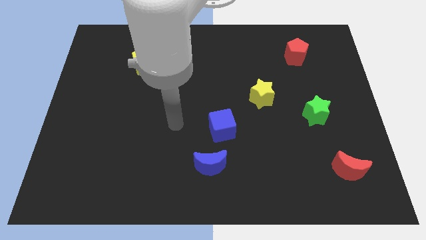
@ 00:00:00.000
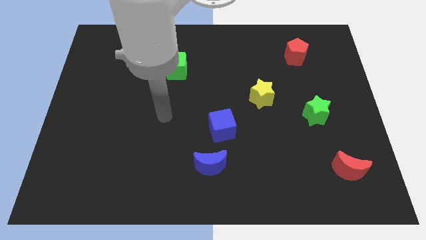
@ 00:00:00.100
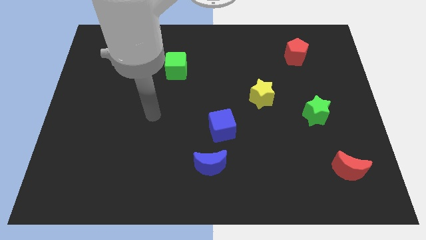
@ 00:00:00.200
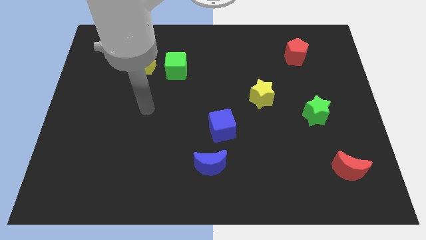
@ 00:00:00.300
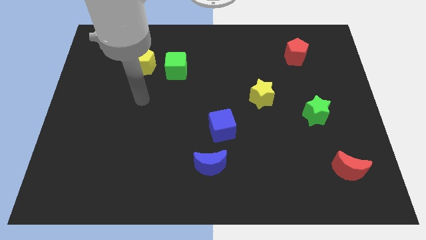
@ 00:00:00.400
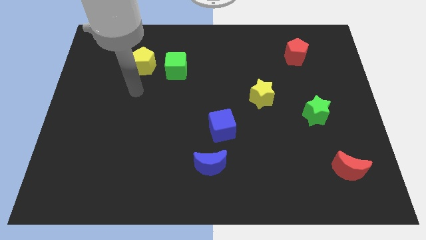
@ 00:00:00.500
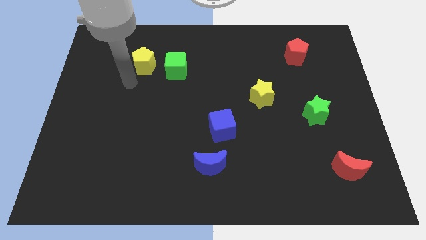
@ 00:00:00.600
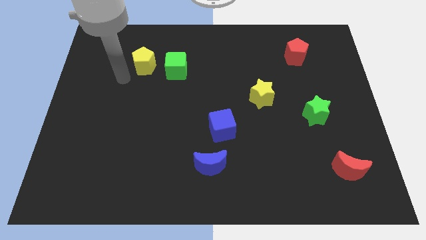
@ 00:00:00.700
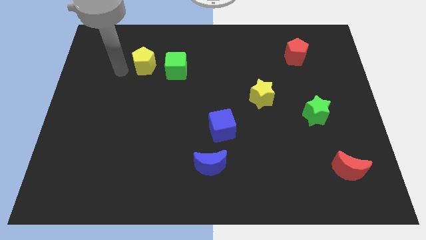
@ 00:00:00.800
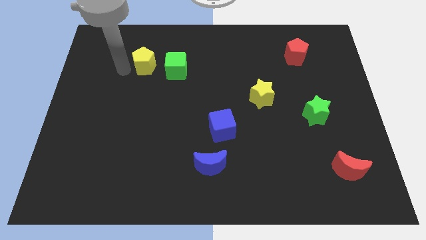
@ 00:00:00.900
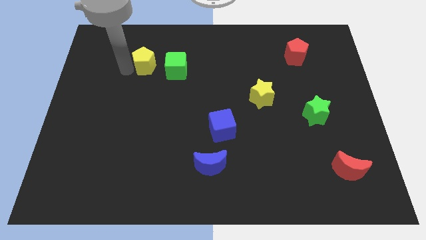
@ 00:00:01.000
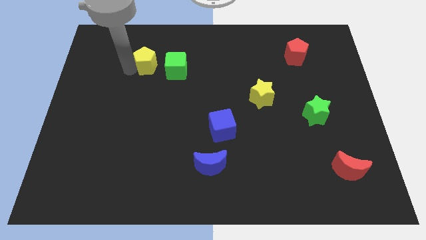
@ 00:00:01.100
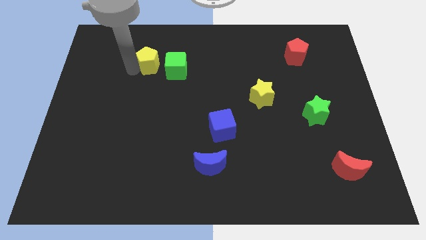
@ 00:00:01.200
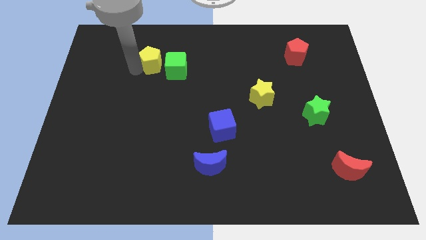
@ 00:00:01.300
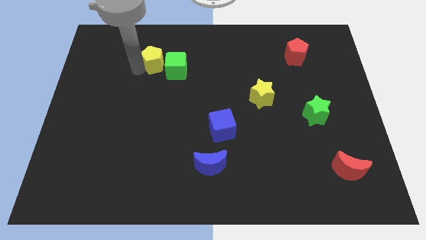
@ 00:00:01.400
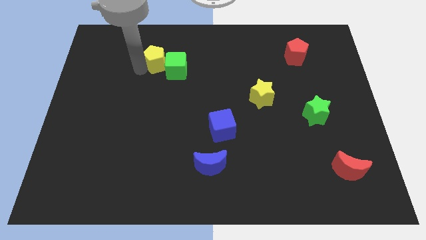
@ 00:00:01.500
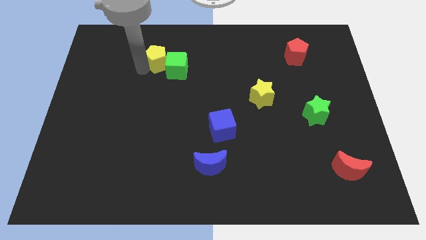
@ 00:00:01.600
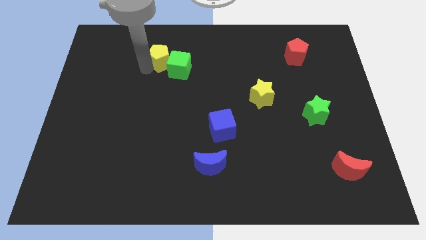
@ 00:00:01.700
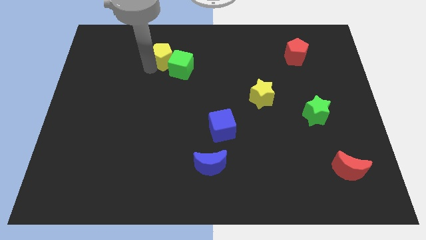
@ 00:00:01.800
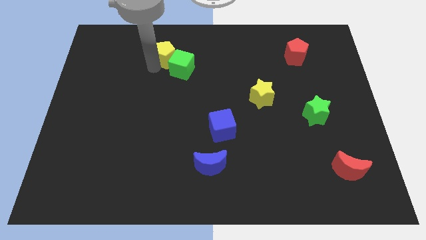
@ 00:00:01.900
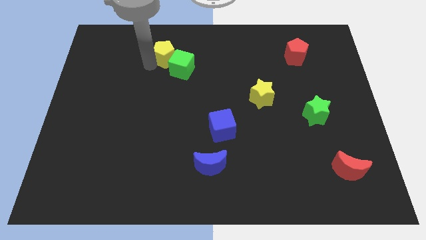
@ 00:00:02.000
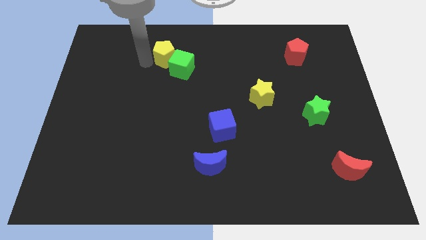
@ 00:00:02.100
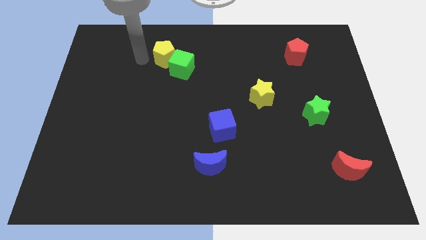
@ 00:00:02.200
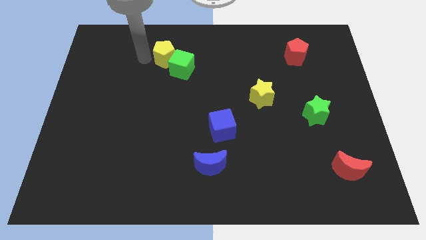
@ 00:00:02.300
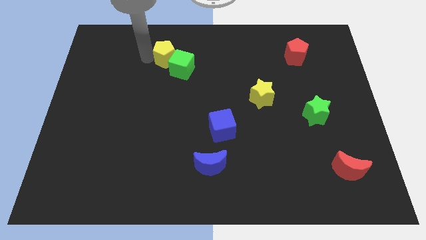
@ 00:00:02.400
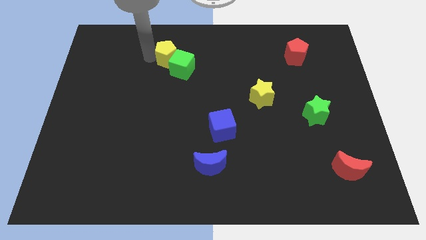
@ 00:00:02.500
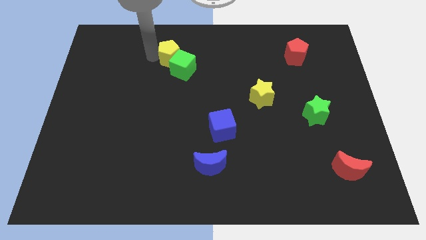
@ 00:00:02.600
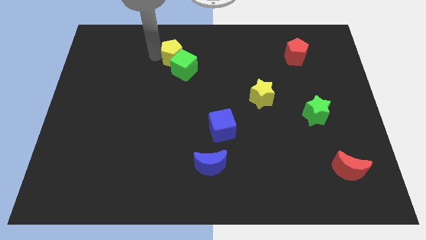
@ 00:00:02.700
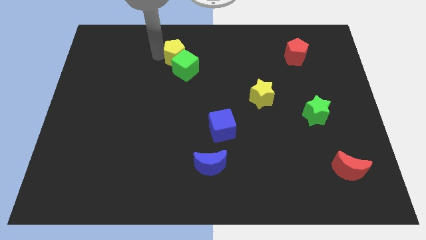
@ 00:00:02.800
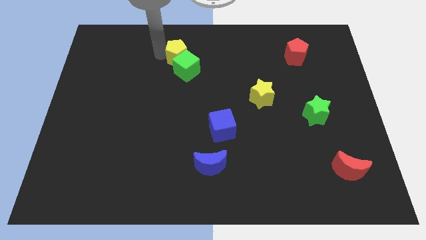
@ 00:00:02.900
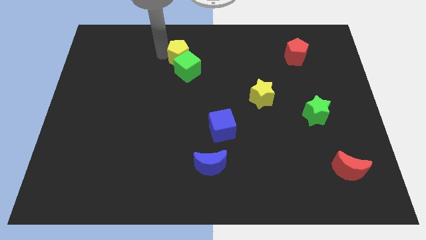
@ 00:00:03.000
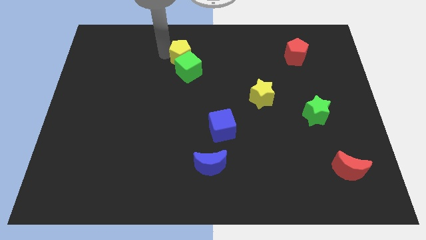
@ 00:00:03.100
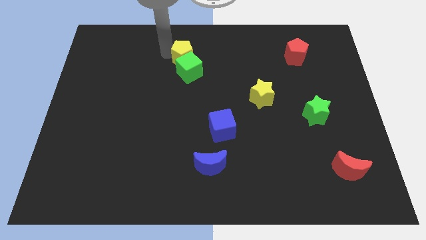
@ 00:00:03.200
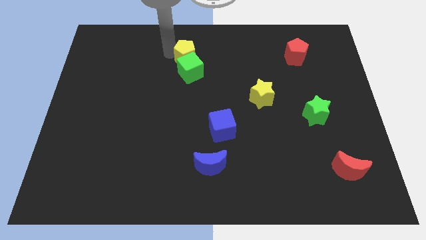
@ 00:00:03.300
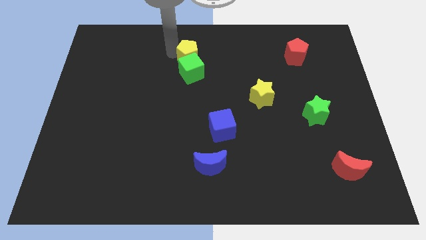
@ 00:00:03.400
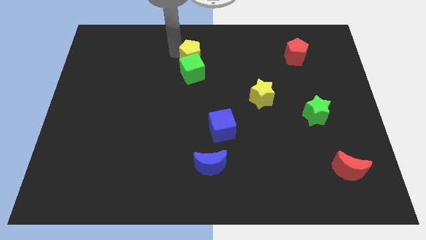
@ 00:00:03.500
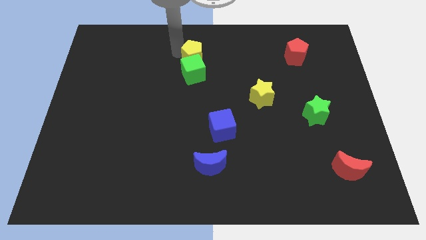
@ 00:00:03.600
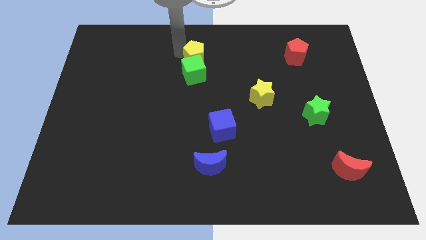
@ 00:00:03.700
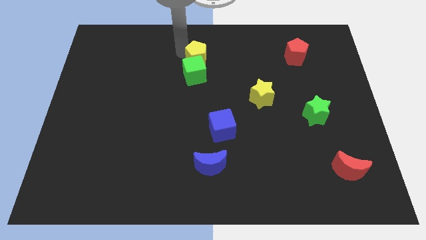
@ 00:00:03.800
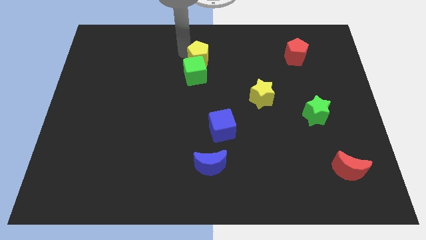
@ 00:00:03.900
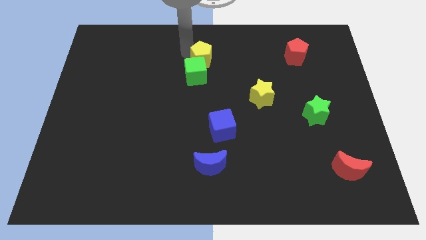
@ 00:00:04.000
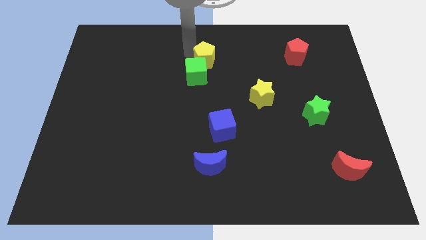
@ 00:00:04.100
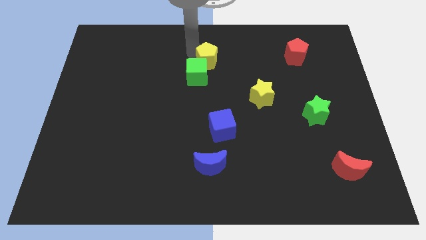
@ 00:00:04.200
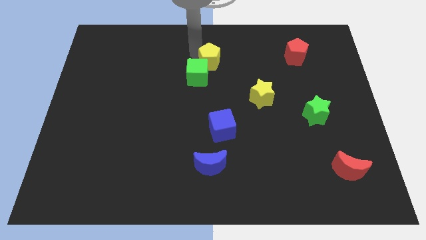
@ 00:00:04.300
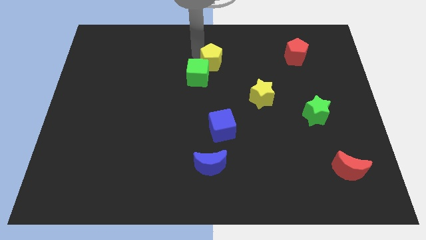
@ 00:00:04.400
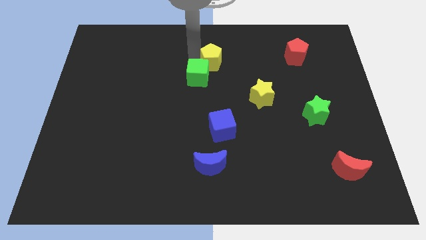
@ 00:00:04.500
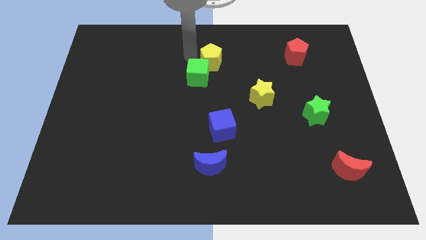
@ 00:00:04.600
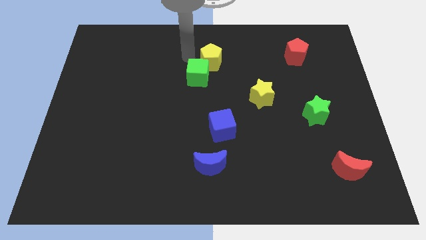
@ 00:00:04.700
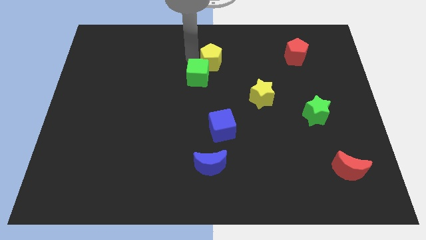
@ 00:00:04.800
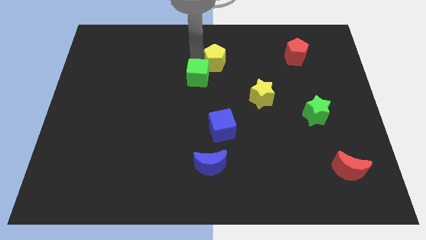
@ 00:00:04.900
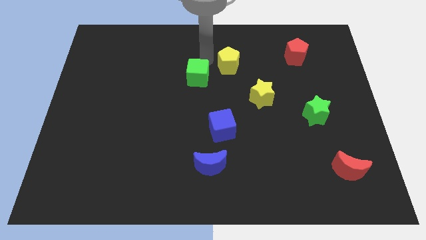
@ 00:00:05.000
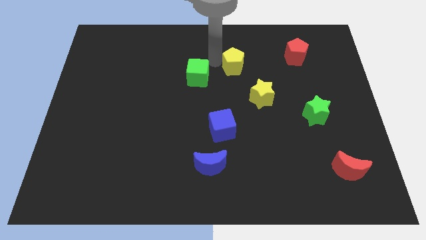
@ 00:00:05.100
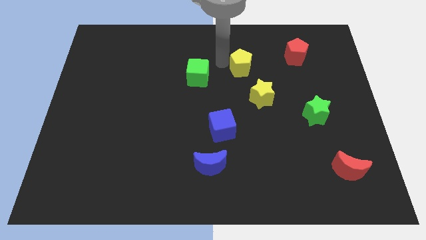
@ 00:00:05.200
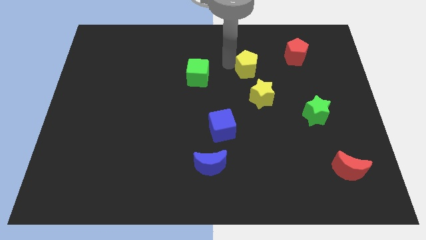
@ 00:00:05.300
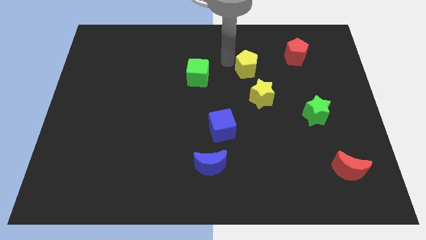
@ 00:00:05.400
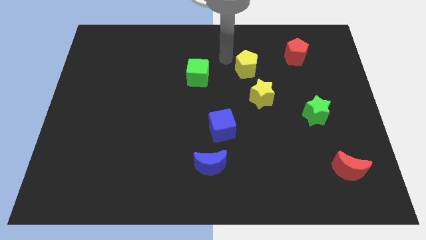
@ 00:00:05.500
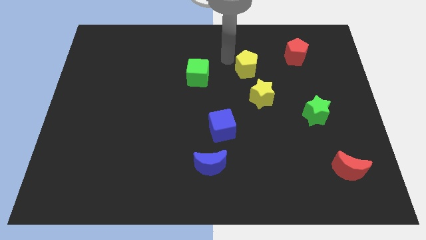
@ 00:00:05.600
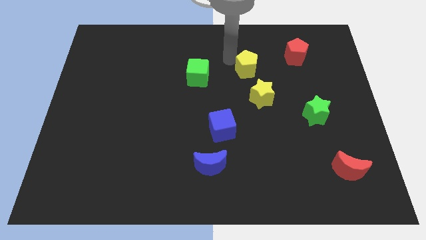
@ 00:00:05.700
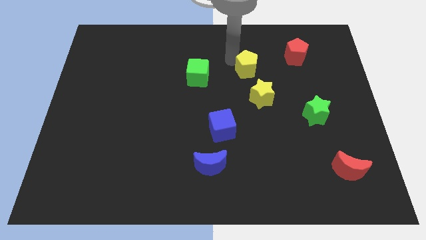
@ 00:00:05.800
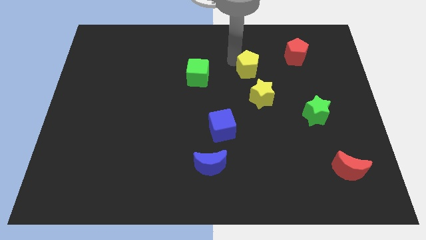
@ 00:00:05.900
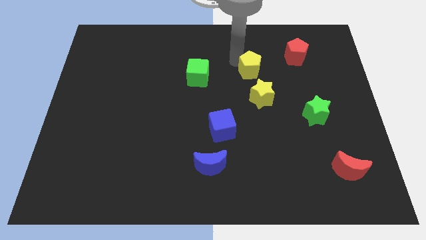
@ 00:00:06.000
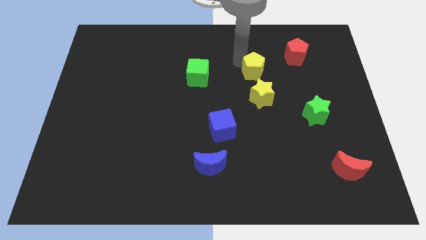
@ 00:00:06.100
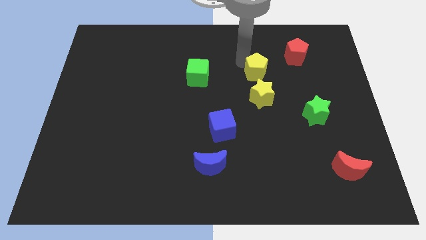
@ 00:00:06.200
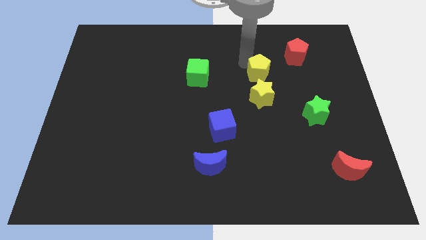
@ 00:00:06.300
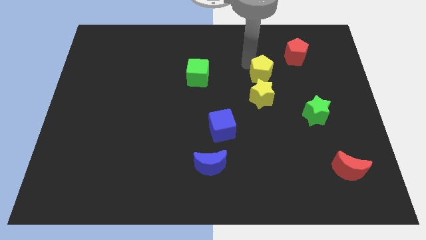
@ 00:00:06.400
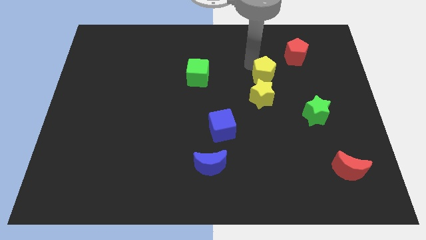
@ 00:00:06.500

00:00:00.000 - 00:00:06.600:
slide the yellow pentagon diagonally up and to the right of the yellow star

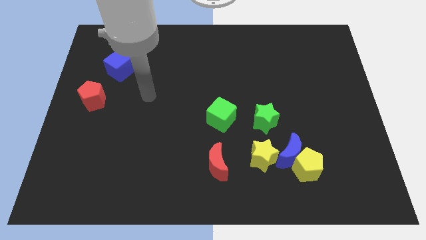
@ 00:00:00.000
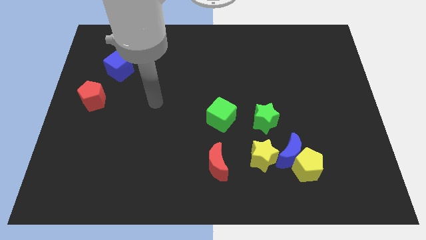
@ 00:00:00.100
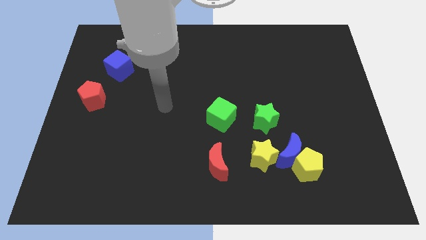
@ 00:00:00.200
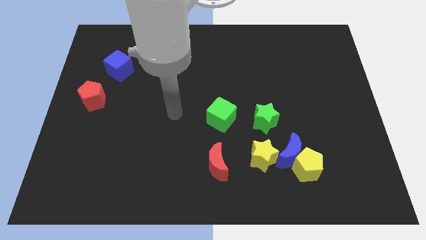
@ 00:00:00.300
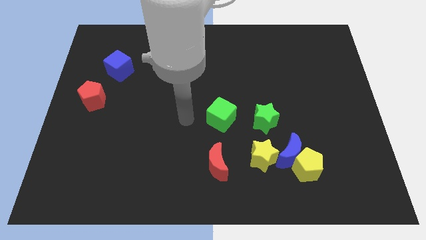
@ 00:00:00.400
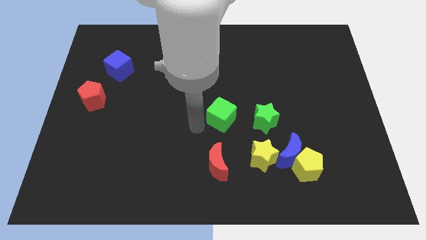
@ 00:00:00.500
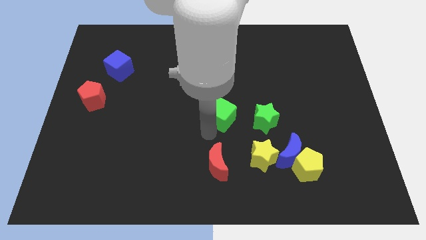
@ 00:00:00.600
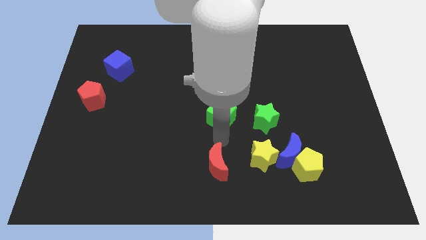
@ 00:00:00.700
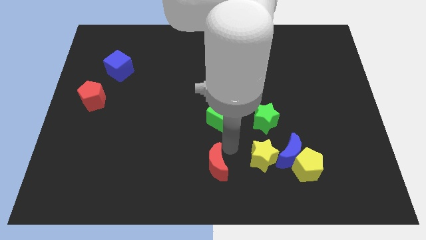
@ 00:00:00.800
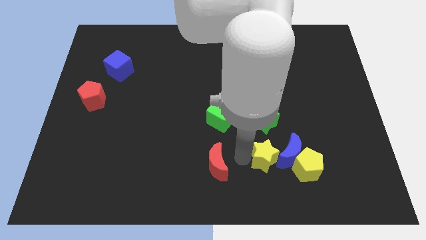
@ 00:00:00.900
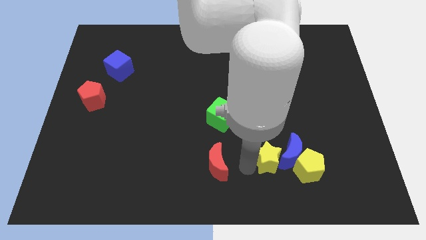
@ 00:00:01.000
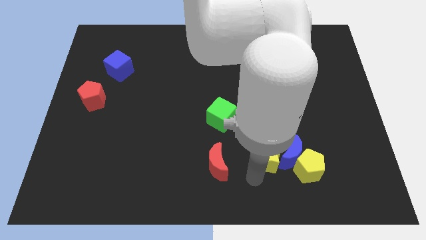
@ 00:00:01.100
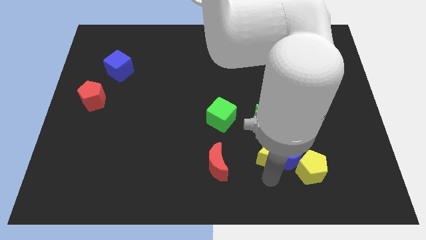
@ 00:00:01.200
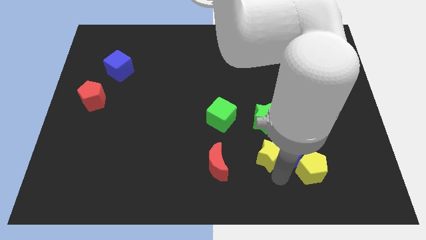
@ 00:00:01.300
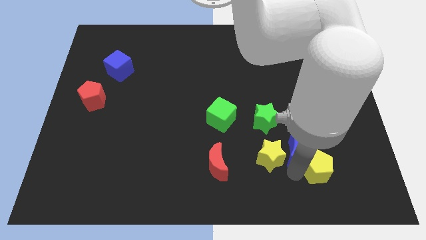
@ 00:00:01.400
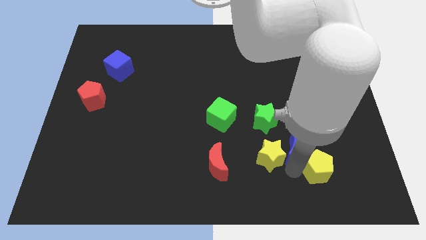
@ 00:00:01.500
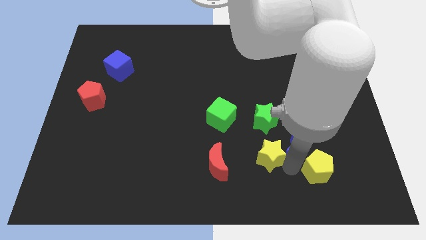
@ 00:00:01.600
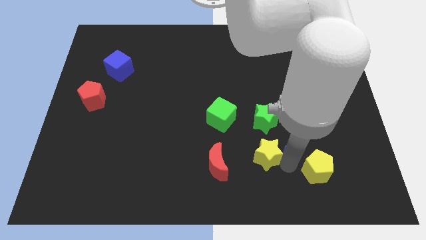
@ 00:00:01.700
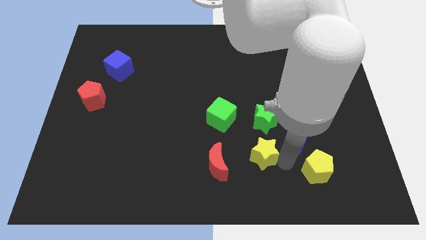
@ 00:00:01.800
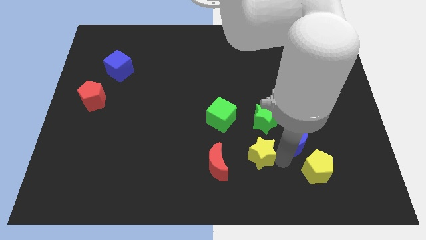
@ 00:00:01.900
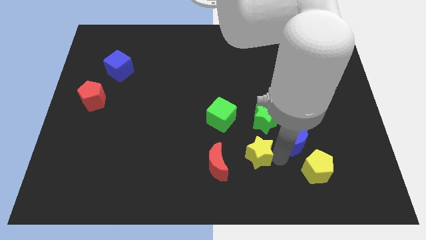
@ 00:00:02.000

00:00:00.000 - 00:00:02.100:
push the yellow star to the bottom left side of the green star

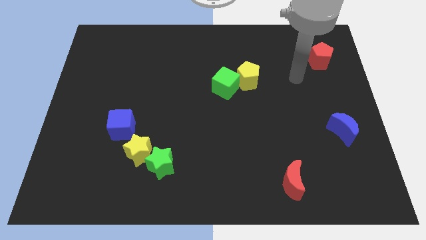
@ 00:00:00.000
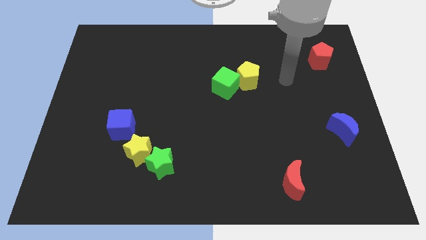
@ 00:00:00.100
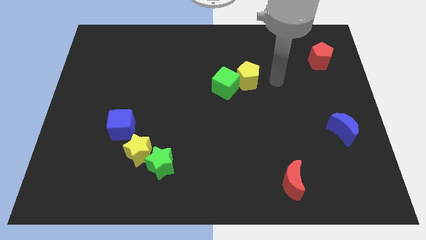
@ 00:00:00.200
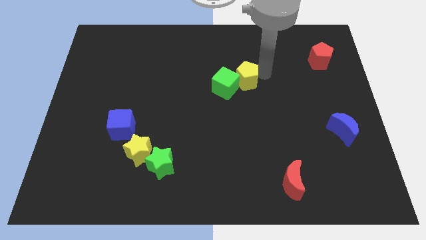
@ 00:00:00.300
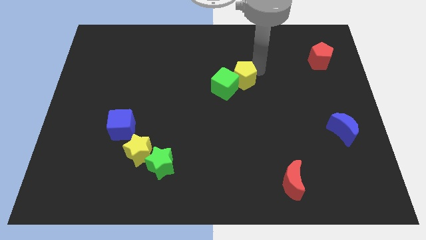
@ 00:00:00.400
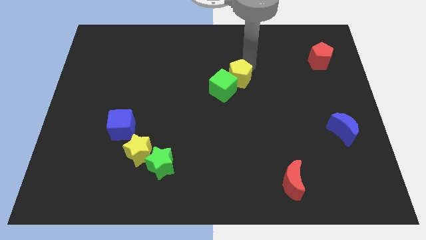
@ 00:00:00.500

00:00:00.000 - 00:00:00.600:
put the green cube below the yellow pentagon
